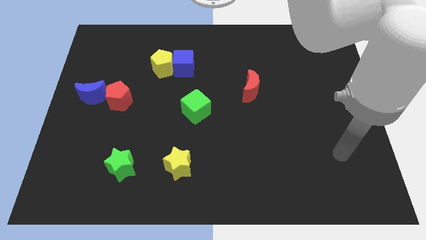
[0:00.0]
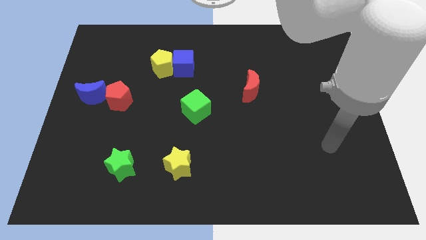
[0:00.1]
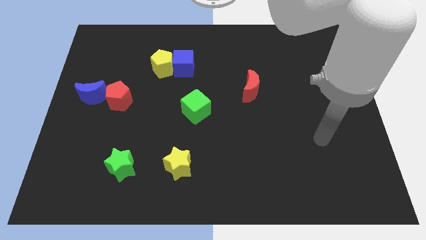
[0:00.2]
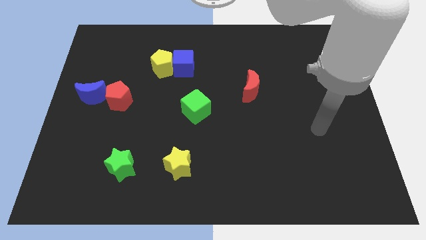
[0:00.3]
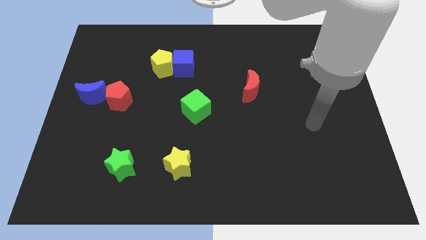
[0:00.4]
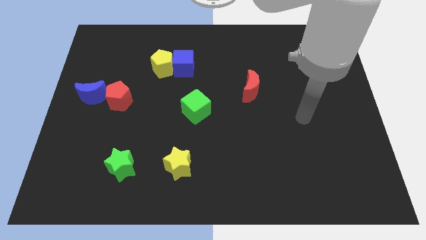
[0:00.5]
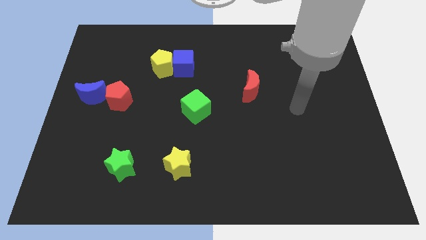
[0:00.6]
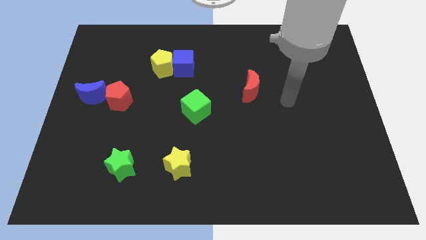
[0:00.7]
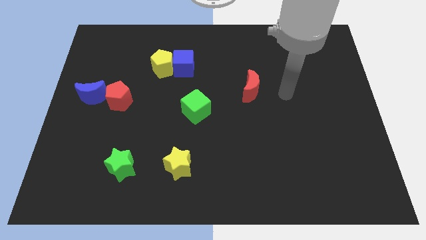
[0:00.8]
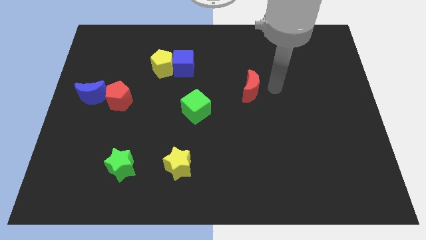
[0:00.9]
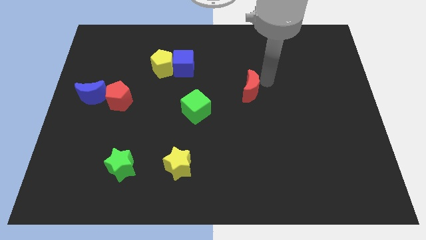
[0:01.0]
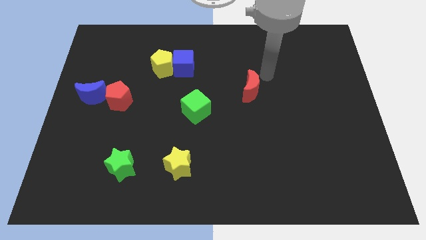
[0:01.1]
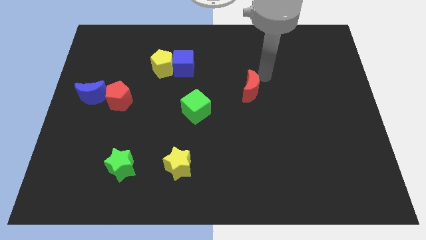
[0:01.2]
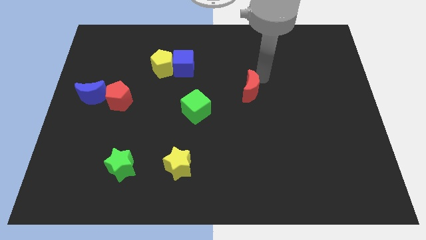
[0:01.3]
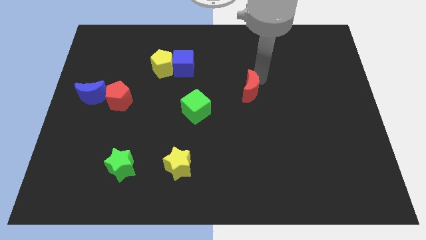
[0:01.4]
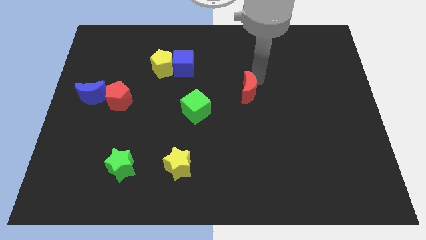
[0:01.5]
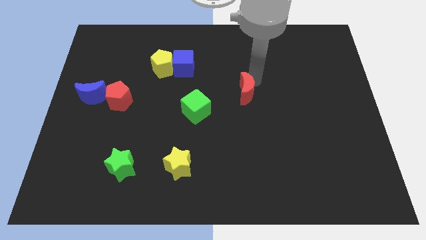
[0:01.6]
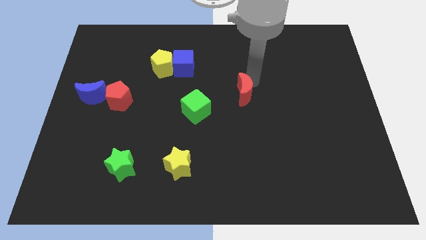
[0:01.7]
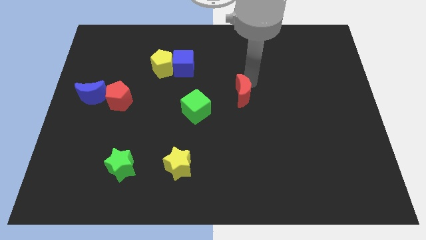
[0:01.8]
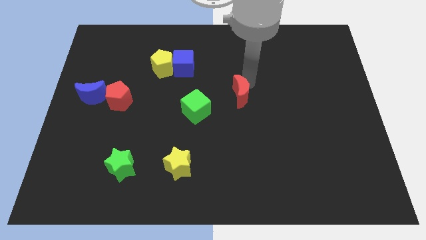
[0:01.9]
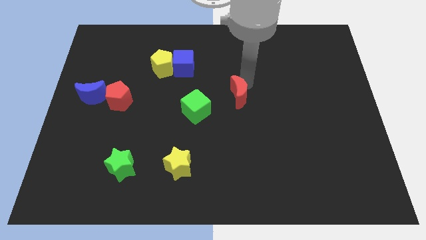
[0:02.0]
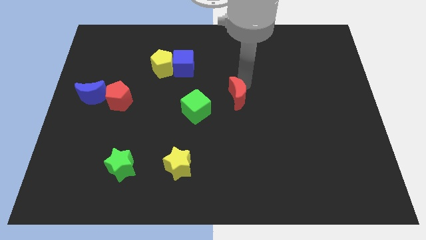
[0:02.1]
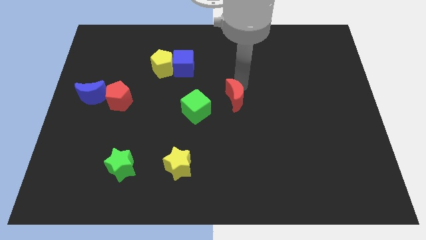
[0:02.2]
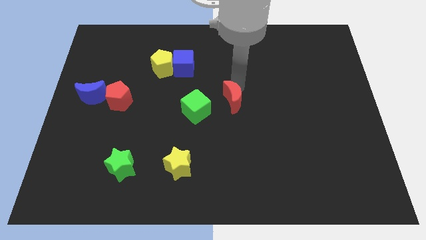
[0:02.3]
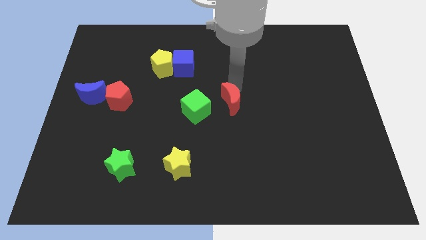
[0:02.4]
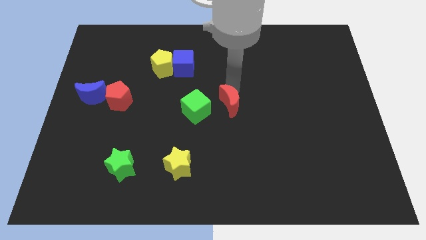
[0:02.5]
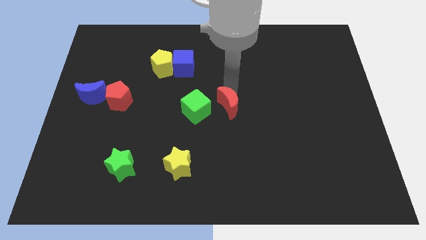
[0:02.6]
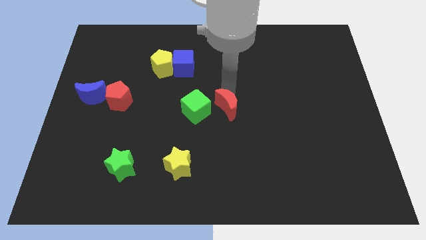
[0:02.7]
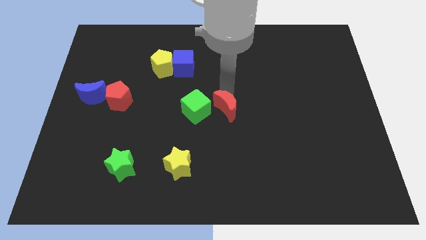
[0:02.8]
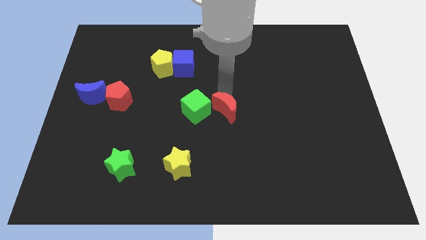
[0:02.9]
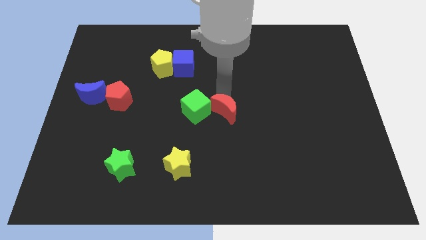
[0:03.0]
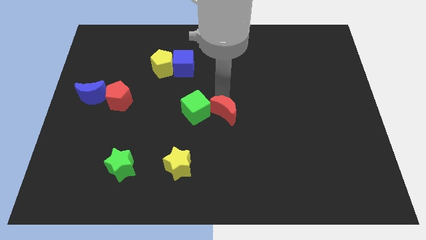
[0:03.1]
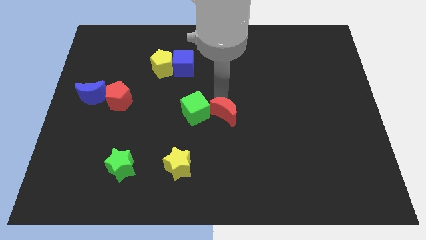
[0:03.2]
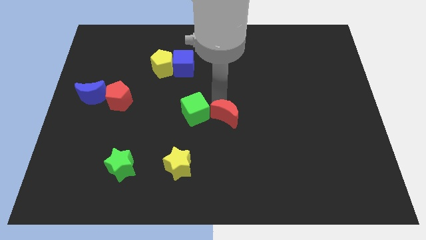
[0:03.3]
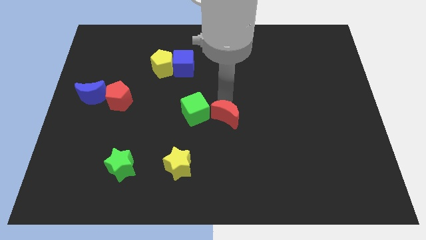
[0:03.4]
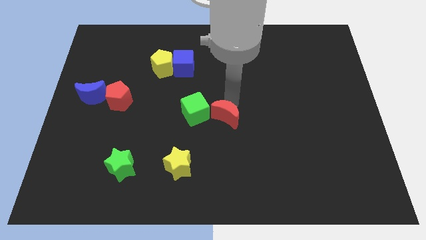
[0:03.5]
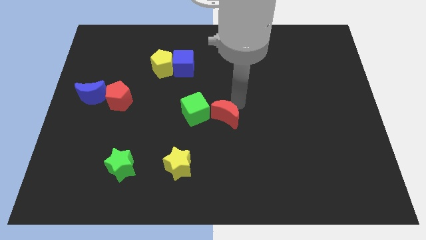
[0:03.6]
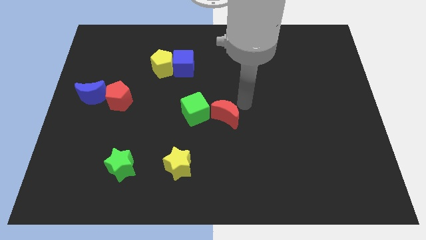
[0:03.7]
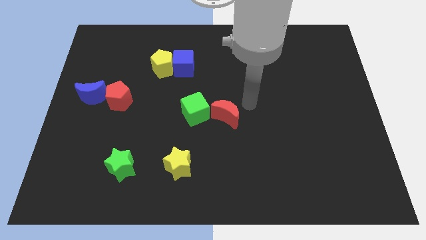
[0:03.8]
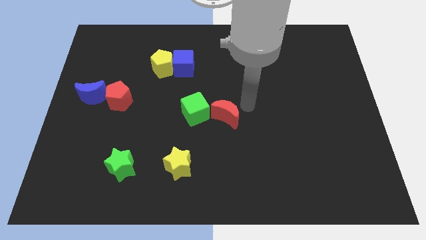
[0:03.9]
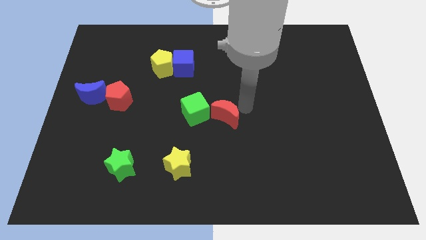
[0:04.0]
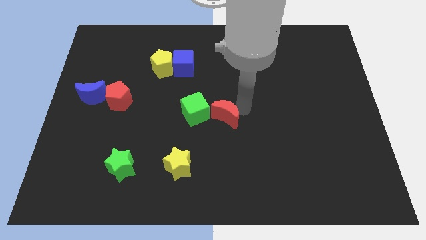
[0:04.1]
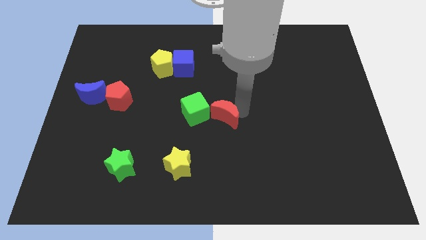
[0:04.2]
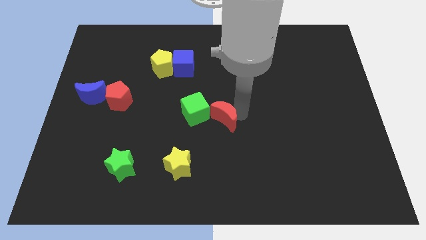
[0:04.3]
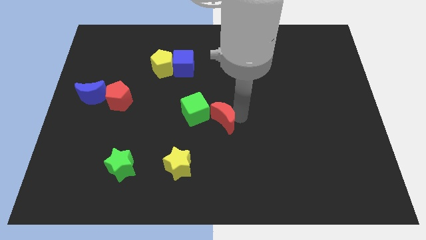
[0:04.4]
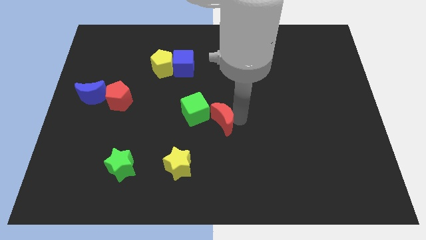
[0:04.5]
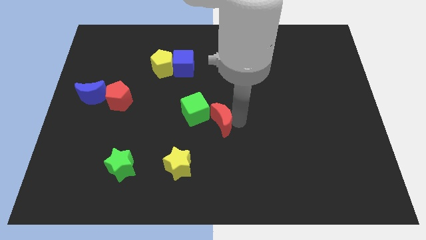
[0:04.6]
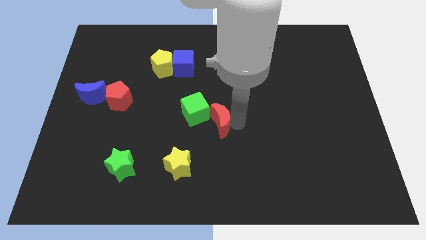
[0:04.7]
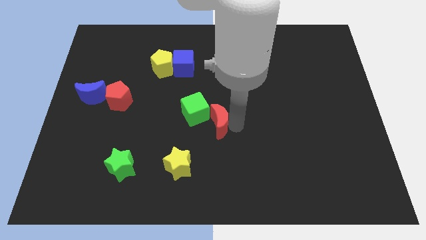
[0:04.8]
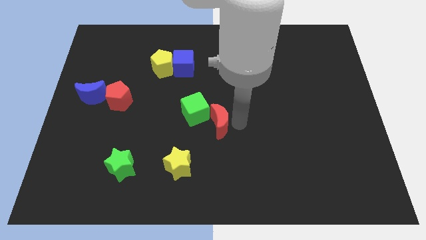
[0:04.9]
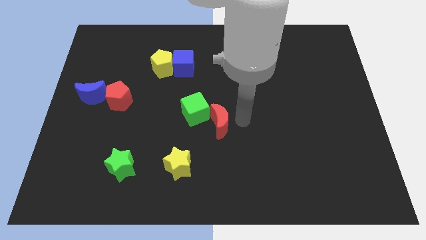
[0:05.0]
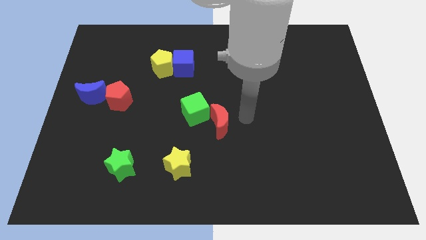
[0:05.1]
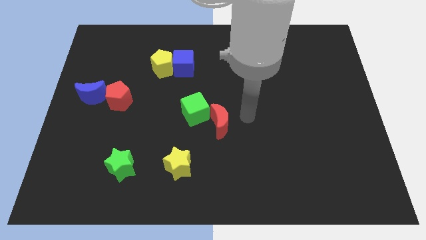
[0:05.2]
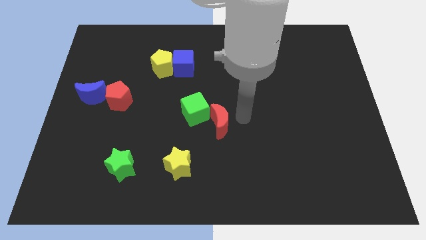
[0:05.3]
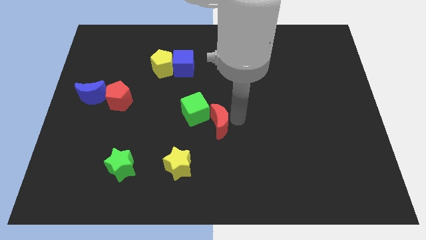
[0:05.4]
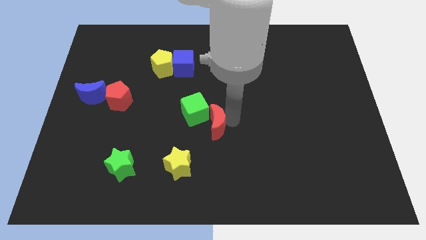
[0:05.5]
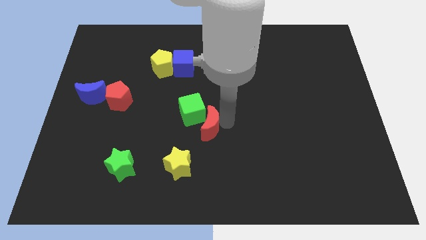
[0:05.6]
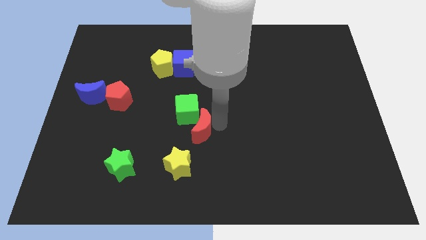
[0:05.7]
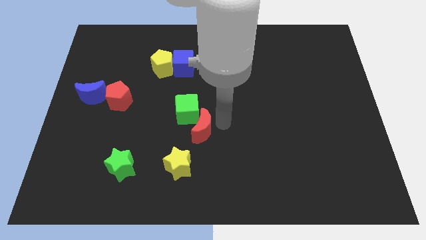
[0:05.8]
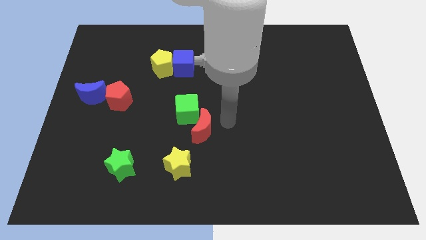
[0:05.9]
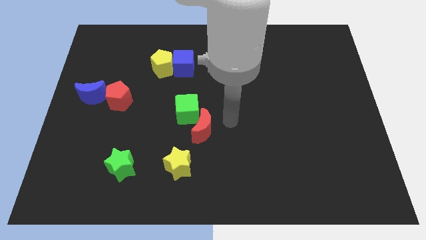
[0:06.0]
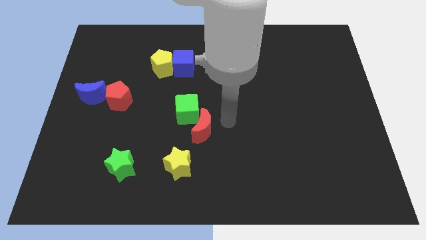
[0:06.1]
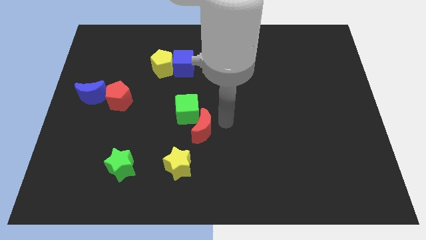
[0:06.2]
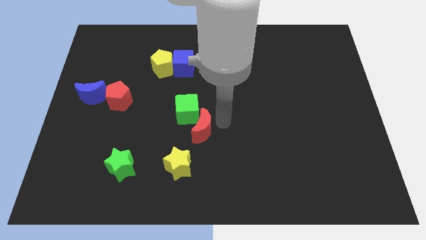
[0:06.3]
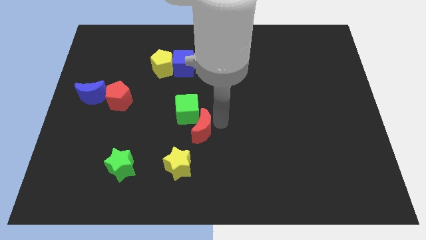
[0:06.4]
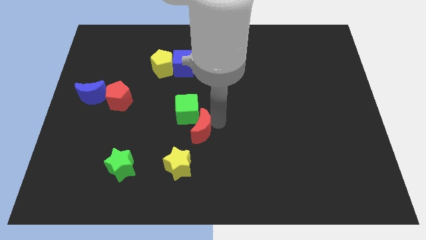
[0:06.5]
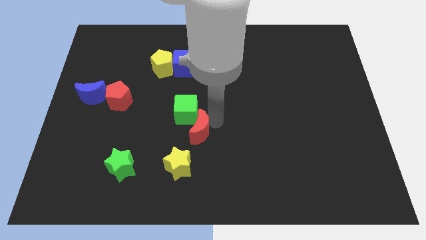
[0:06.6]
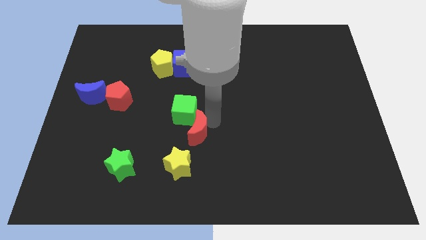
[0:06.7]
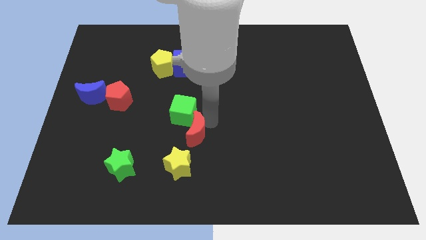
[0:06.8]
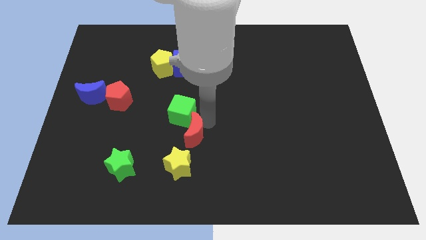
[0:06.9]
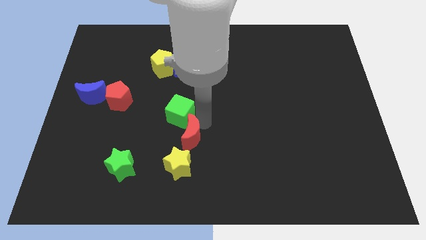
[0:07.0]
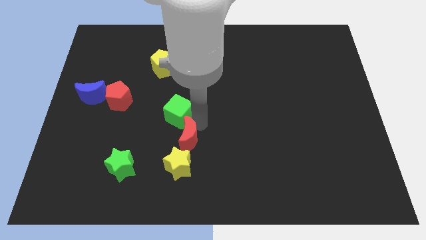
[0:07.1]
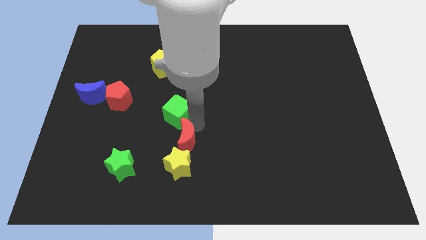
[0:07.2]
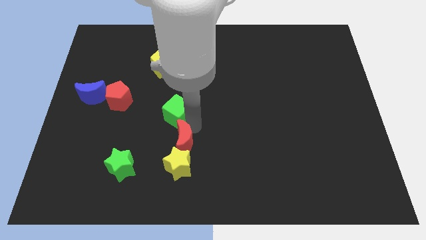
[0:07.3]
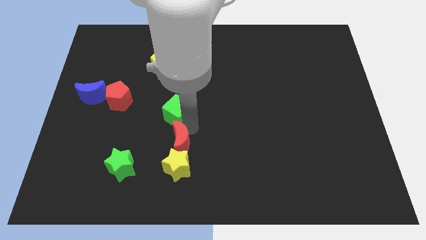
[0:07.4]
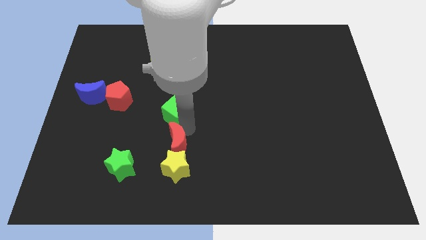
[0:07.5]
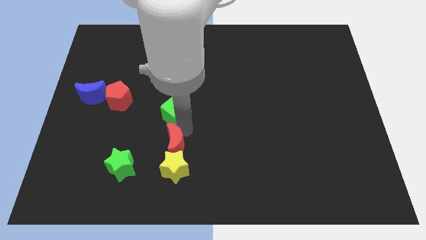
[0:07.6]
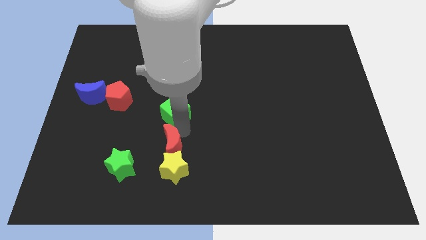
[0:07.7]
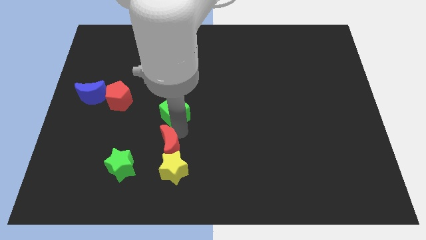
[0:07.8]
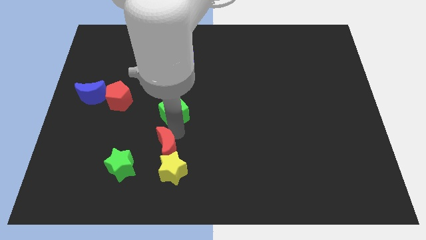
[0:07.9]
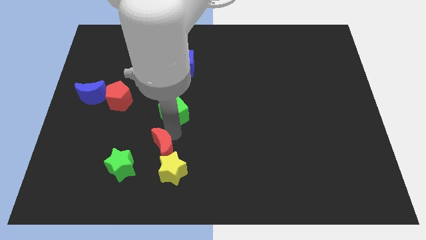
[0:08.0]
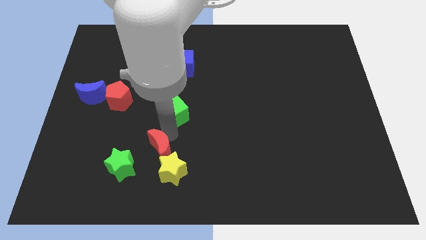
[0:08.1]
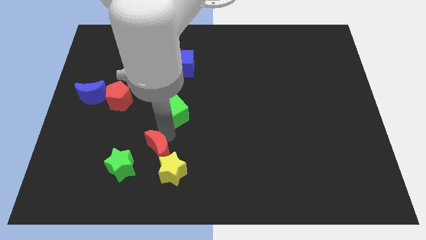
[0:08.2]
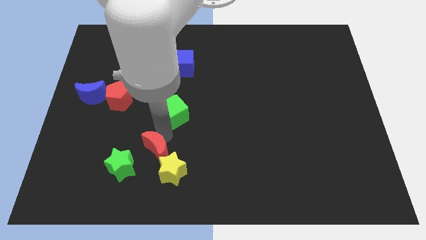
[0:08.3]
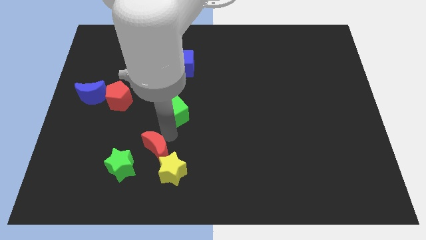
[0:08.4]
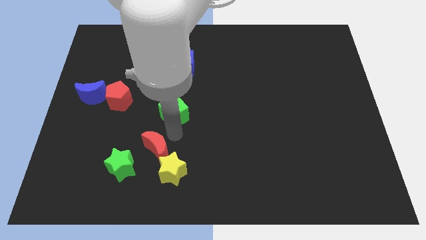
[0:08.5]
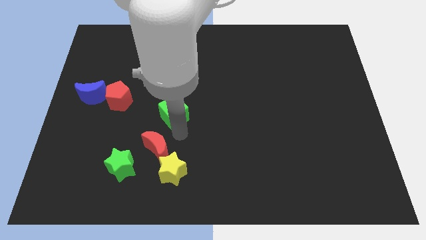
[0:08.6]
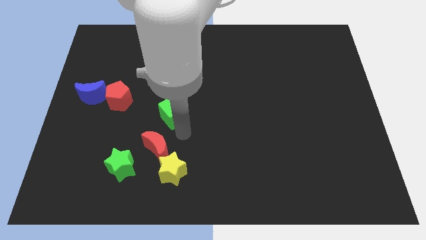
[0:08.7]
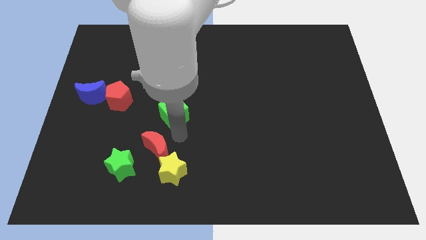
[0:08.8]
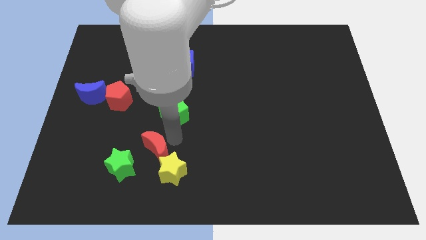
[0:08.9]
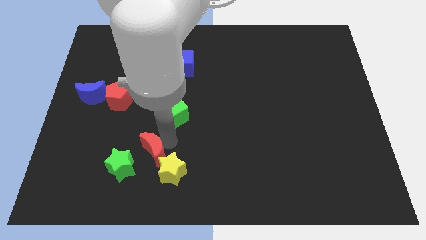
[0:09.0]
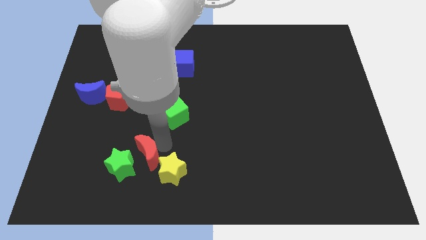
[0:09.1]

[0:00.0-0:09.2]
slide the red moon towards the green star
